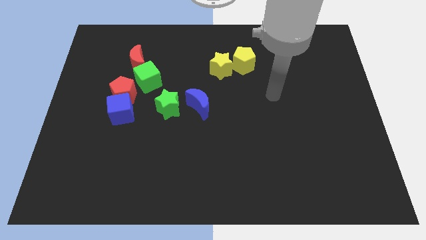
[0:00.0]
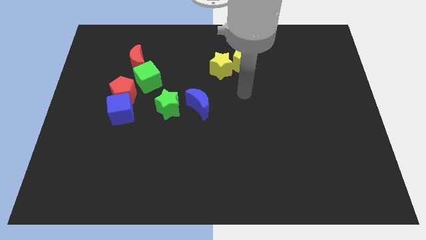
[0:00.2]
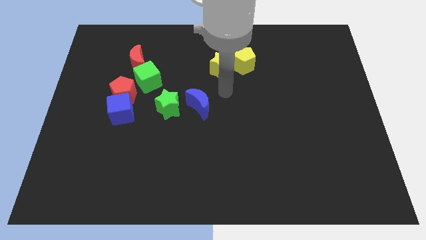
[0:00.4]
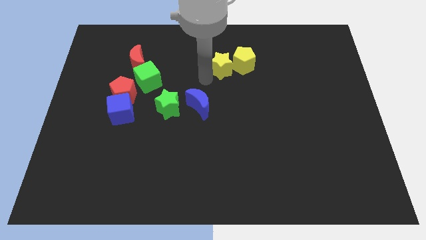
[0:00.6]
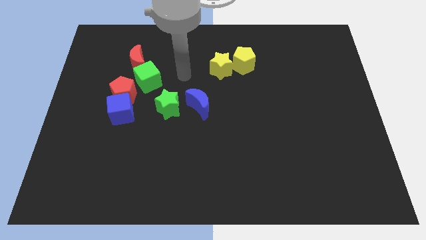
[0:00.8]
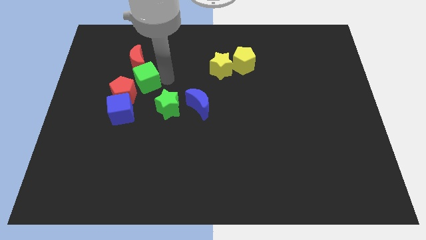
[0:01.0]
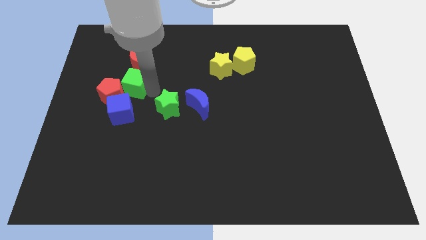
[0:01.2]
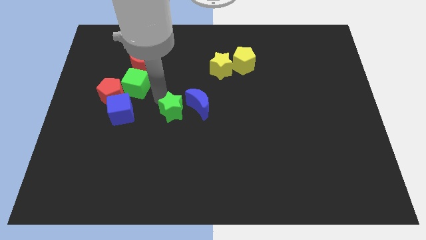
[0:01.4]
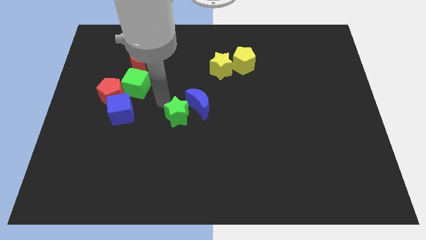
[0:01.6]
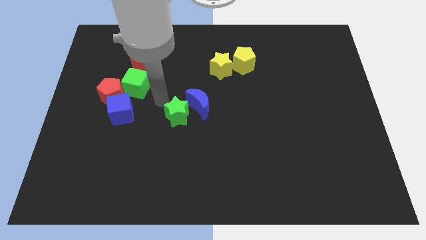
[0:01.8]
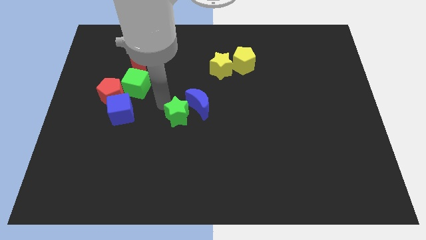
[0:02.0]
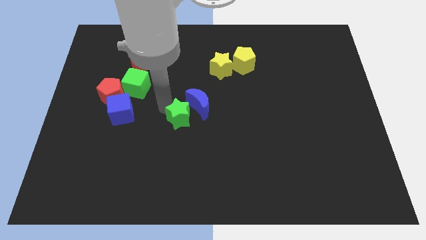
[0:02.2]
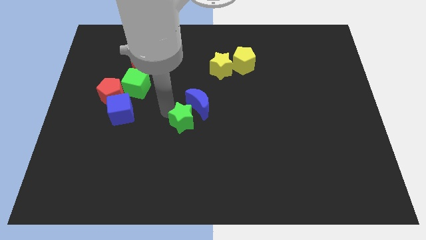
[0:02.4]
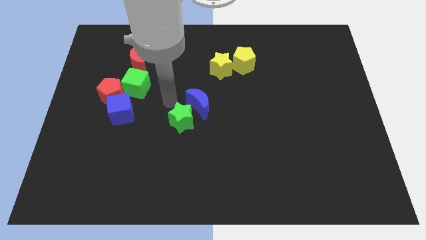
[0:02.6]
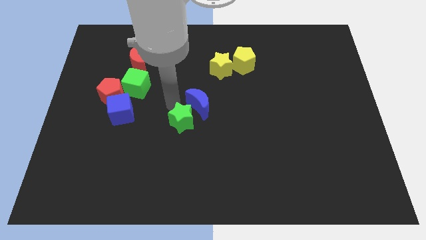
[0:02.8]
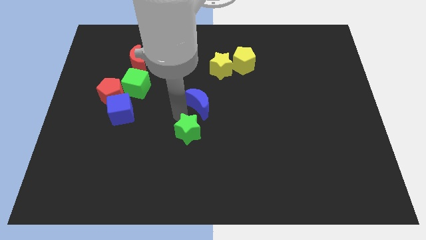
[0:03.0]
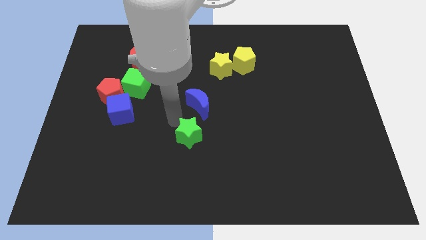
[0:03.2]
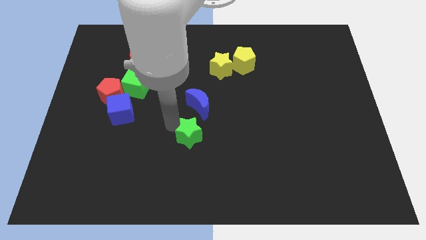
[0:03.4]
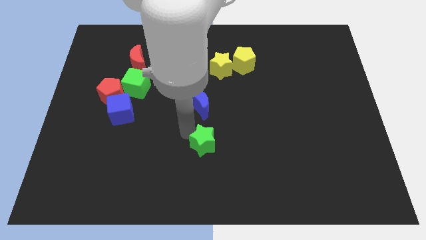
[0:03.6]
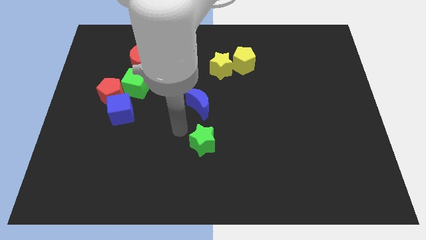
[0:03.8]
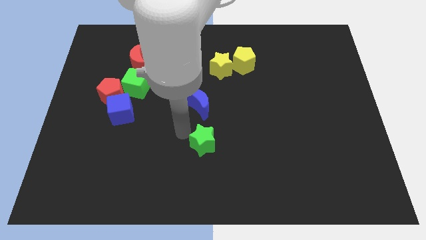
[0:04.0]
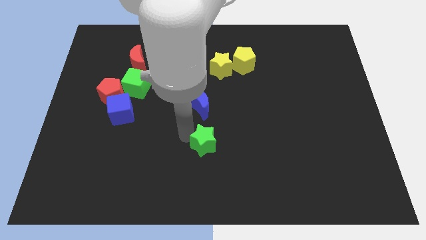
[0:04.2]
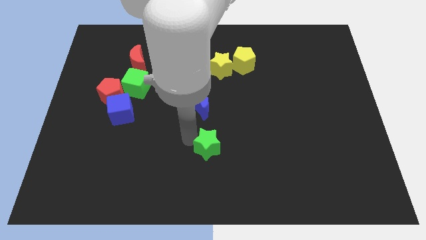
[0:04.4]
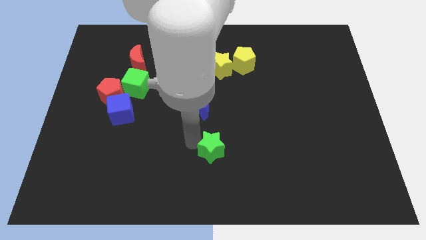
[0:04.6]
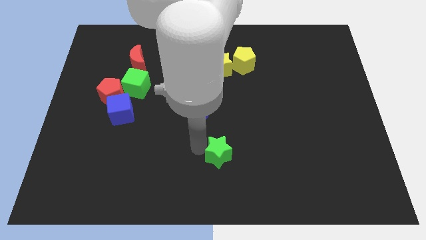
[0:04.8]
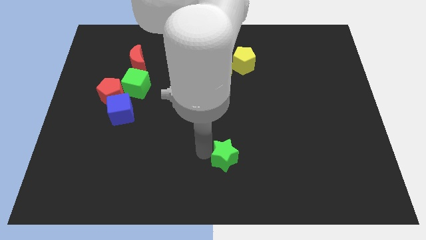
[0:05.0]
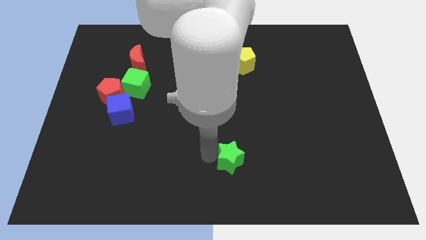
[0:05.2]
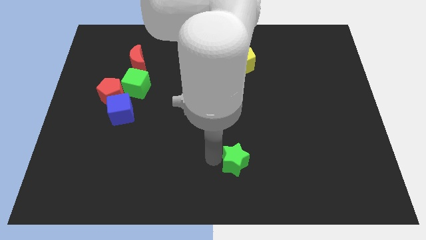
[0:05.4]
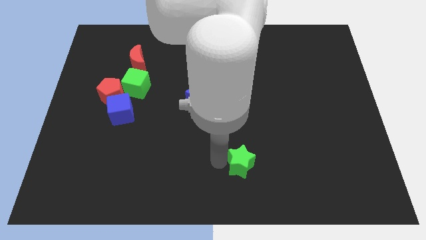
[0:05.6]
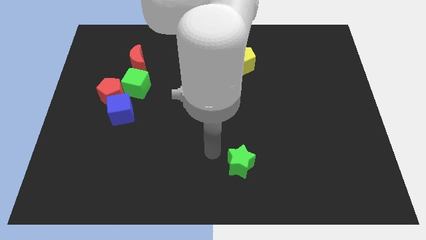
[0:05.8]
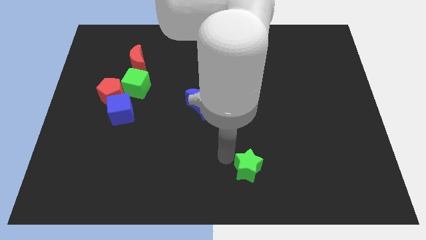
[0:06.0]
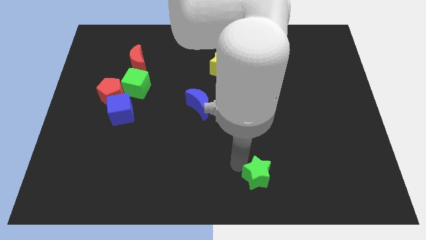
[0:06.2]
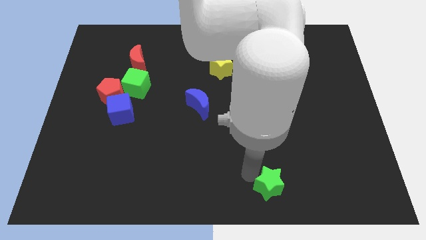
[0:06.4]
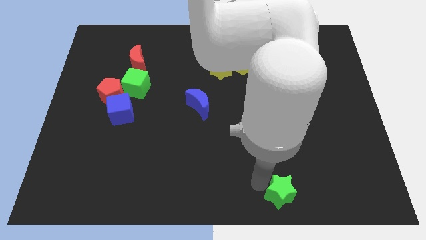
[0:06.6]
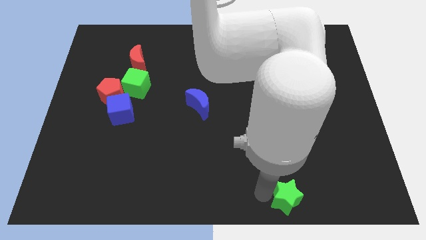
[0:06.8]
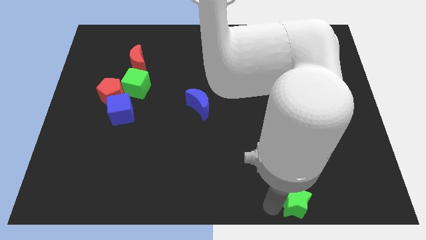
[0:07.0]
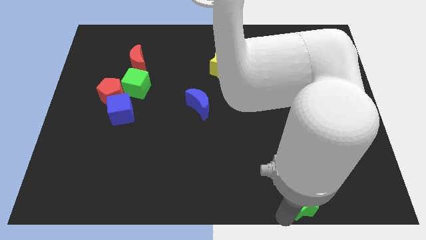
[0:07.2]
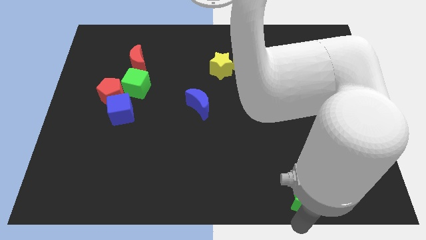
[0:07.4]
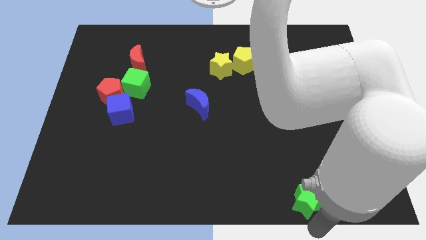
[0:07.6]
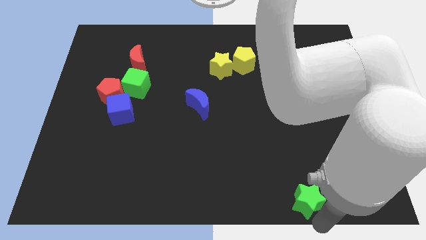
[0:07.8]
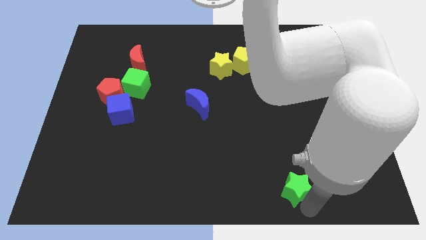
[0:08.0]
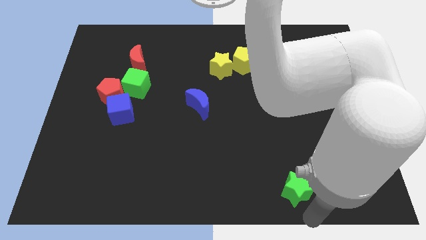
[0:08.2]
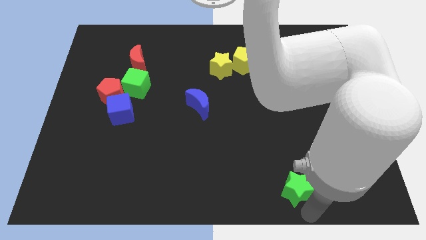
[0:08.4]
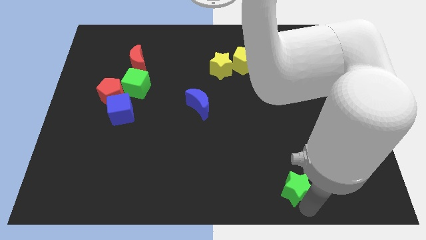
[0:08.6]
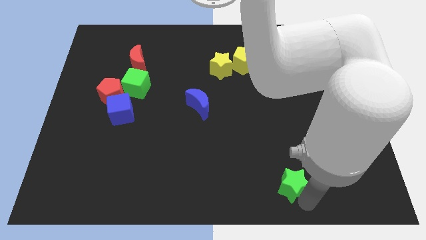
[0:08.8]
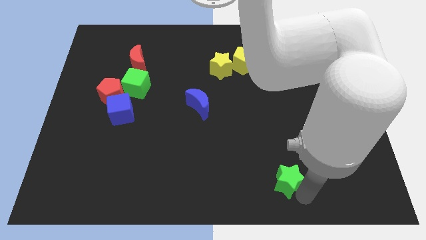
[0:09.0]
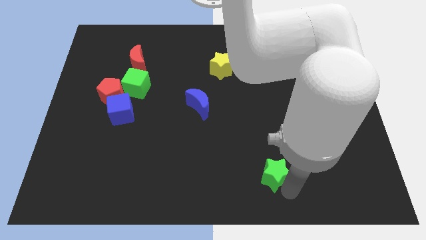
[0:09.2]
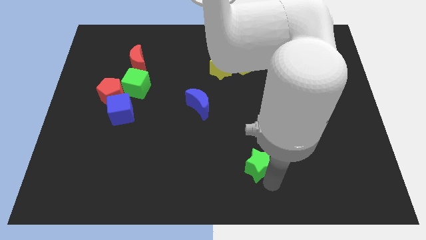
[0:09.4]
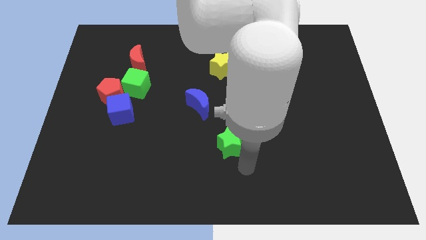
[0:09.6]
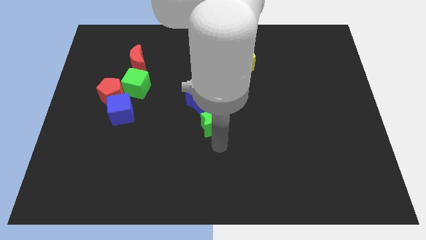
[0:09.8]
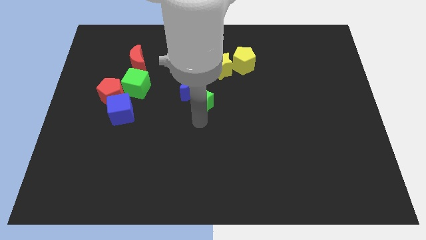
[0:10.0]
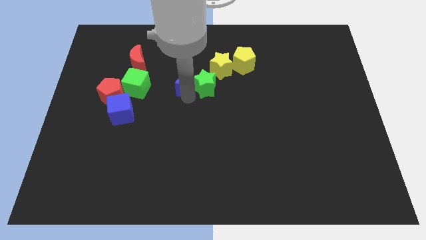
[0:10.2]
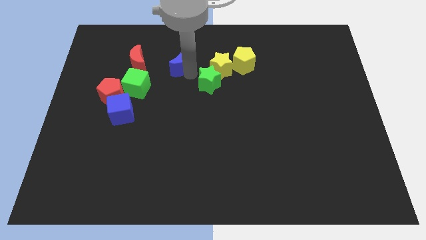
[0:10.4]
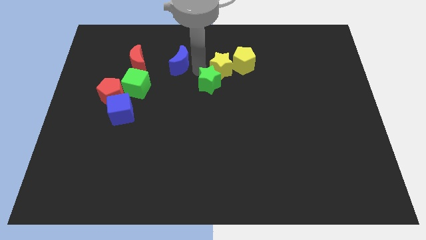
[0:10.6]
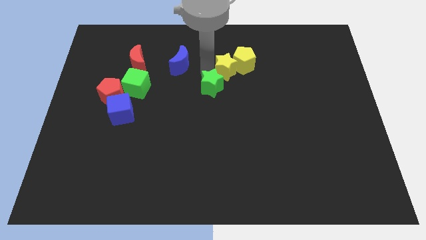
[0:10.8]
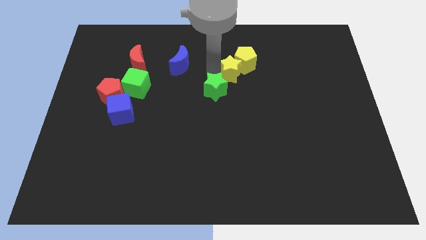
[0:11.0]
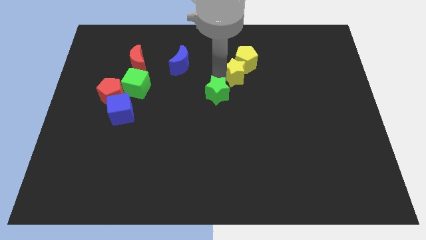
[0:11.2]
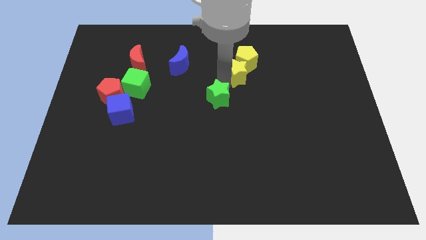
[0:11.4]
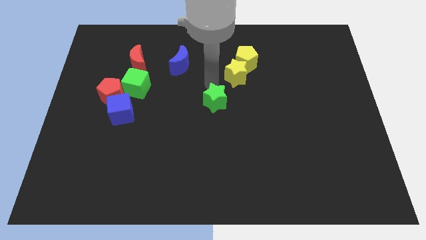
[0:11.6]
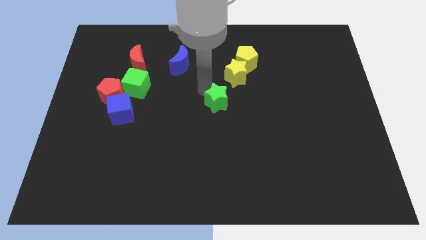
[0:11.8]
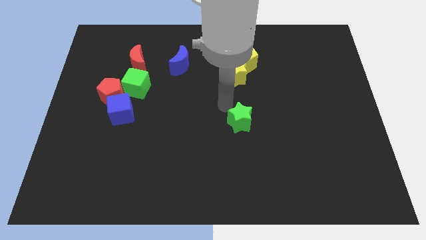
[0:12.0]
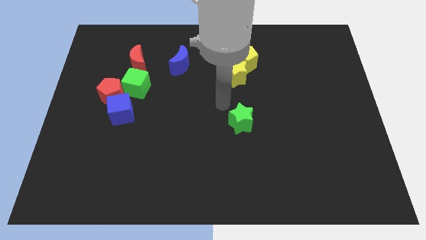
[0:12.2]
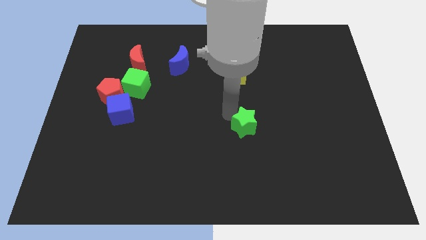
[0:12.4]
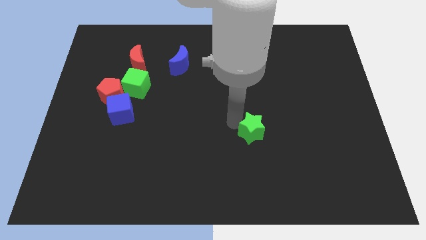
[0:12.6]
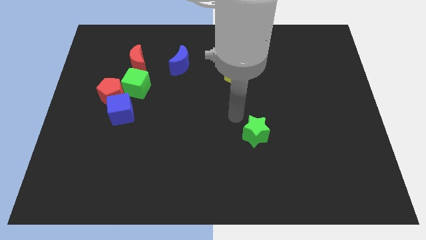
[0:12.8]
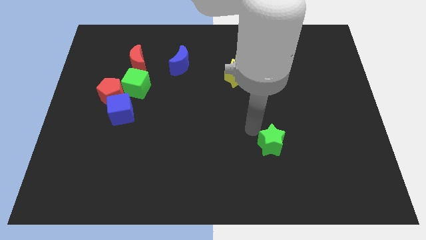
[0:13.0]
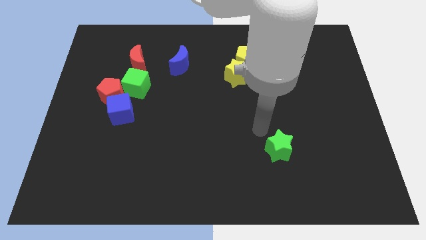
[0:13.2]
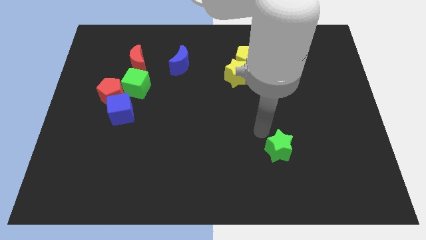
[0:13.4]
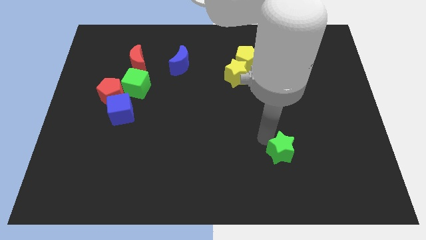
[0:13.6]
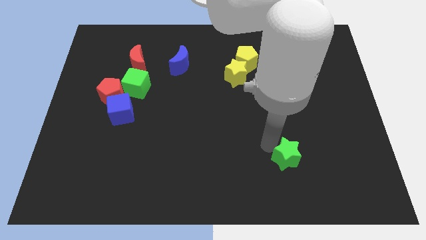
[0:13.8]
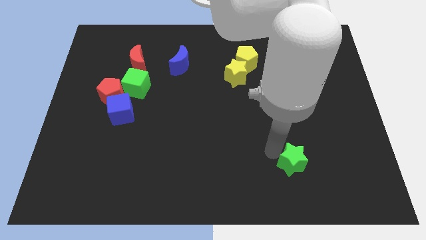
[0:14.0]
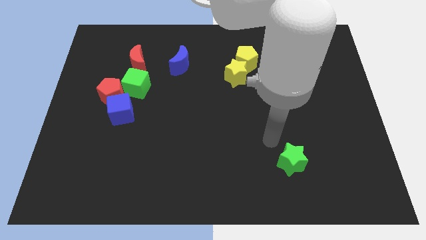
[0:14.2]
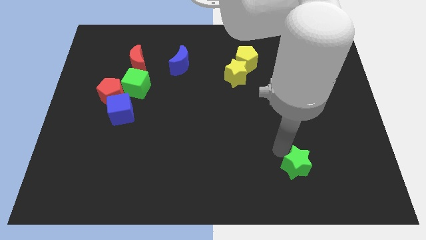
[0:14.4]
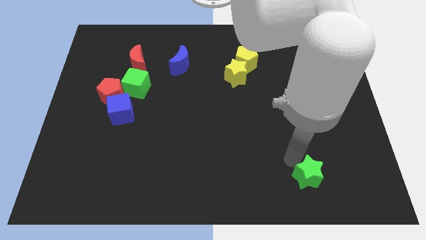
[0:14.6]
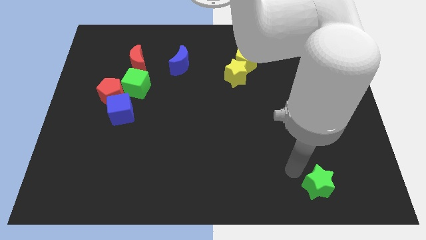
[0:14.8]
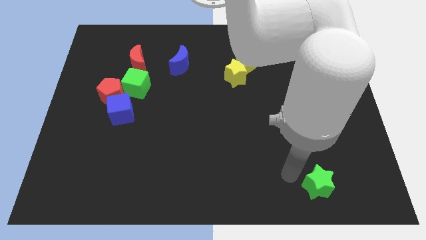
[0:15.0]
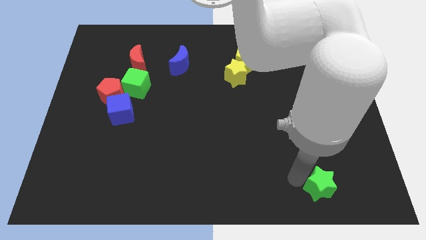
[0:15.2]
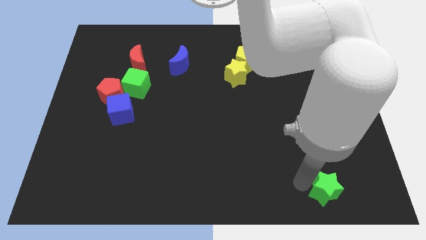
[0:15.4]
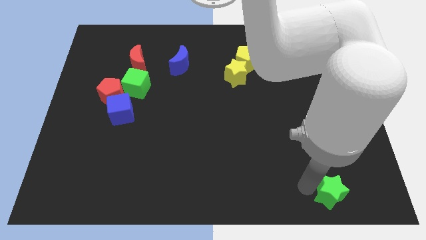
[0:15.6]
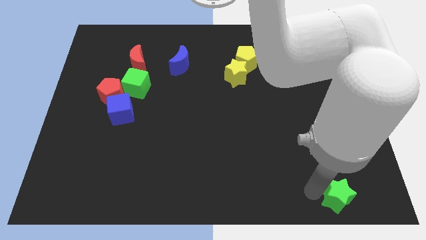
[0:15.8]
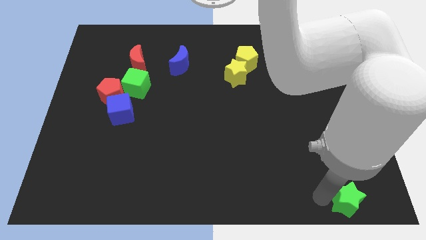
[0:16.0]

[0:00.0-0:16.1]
slide the green star to the bottom right
